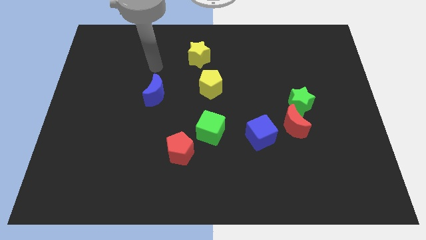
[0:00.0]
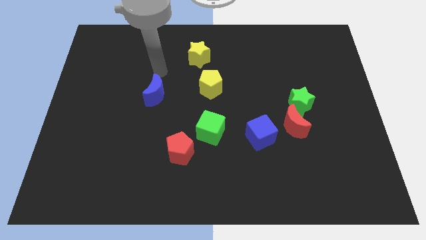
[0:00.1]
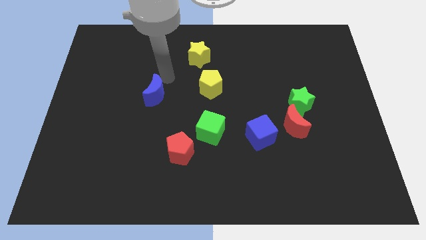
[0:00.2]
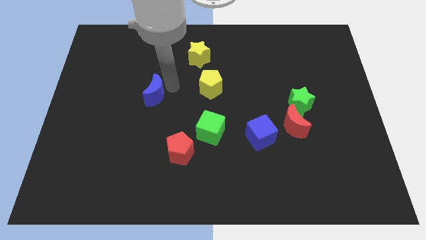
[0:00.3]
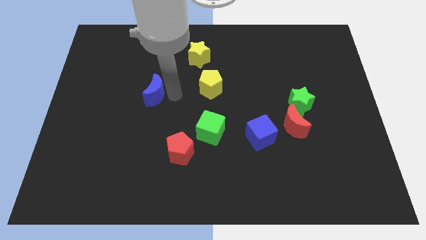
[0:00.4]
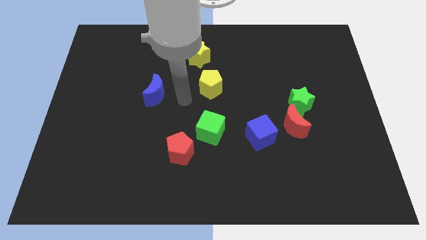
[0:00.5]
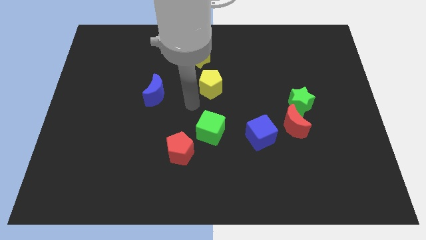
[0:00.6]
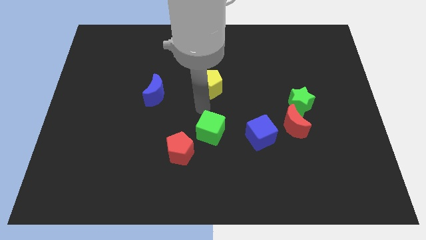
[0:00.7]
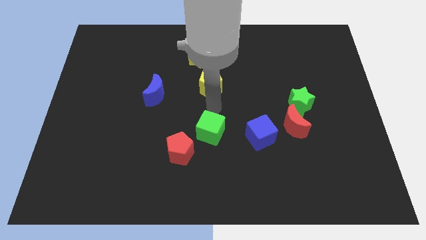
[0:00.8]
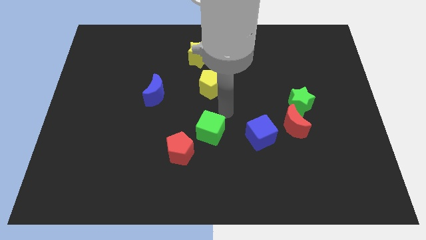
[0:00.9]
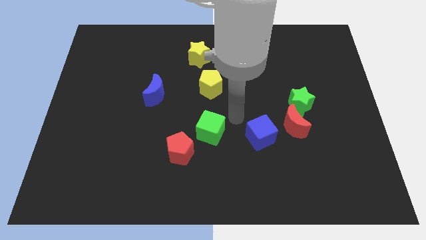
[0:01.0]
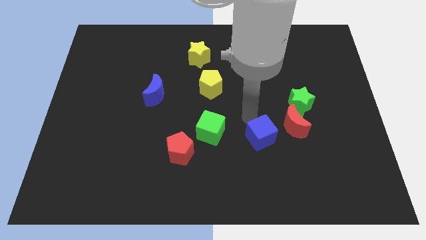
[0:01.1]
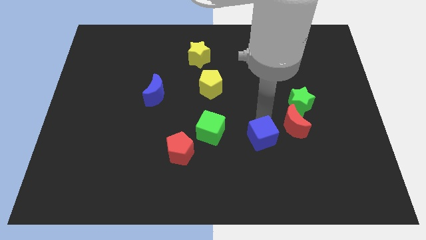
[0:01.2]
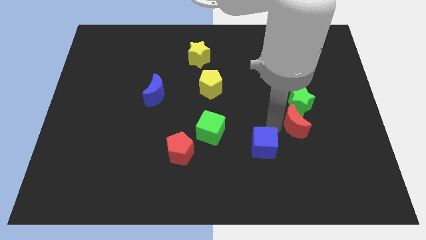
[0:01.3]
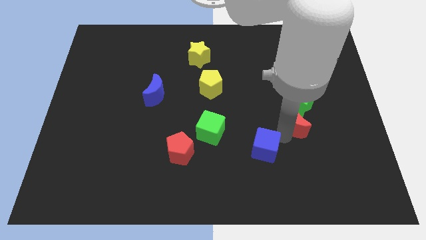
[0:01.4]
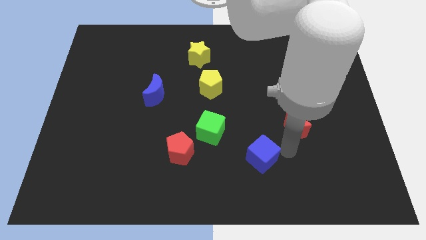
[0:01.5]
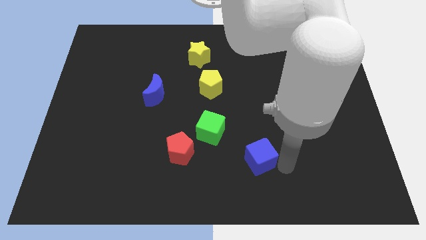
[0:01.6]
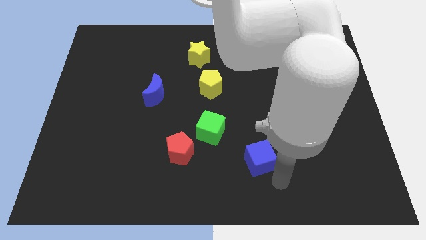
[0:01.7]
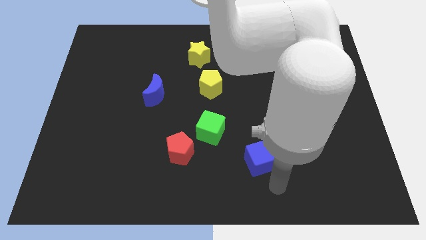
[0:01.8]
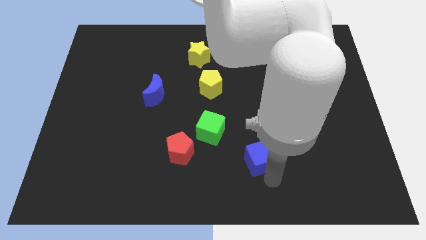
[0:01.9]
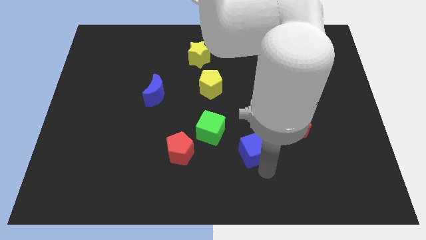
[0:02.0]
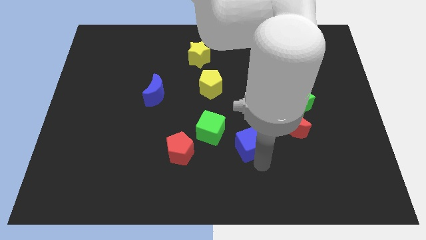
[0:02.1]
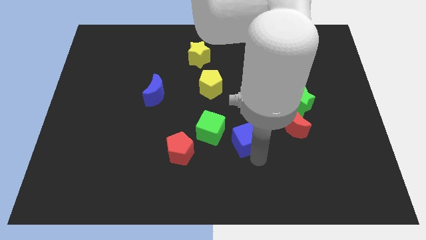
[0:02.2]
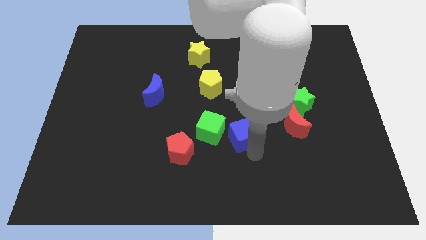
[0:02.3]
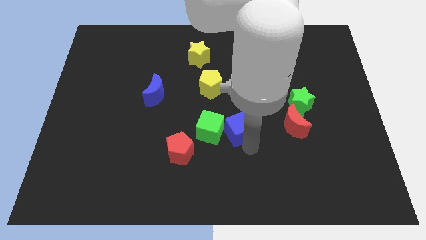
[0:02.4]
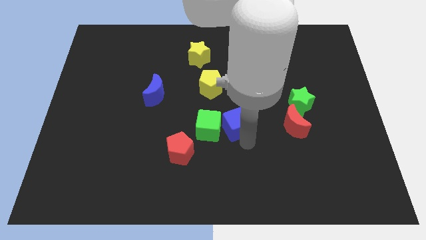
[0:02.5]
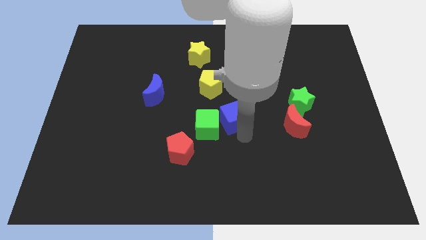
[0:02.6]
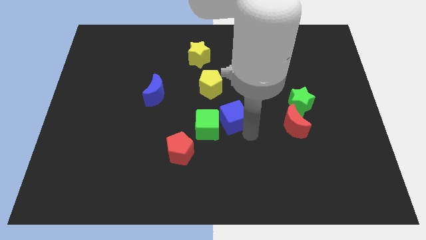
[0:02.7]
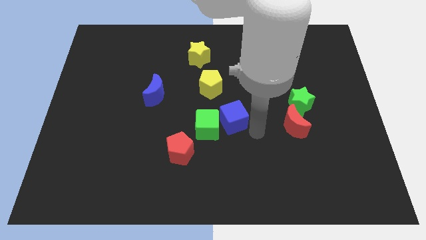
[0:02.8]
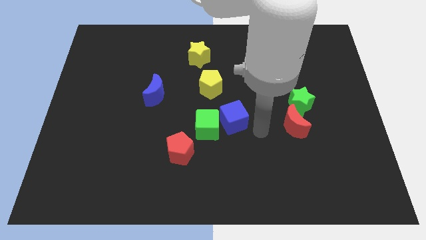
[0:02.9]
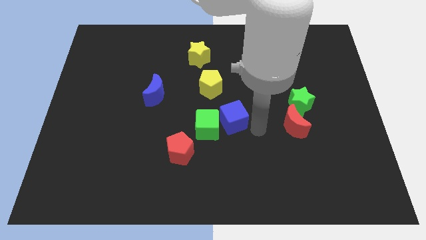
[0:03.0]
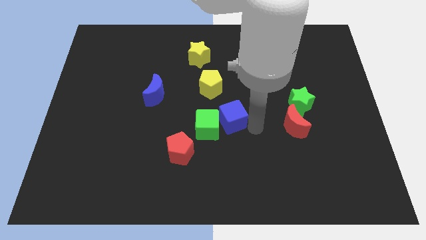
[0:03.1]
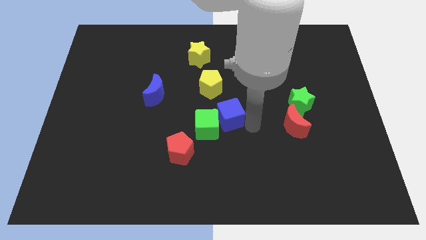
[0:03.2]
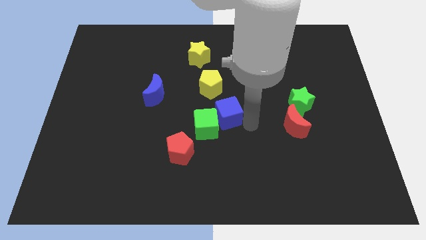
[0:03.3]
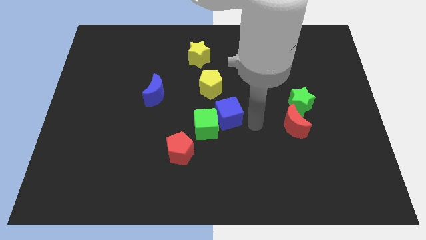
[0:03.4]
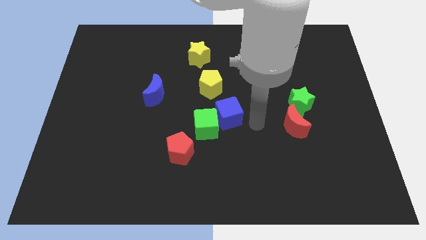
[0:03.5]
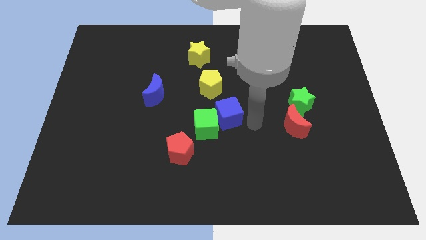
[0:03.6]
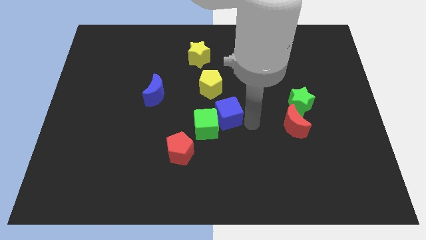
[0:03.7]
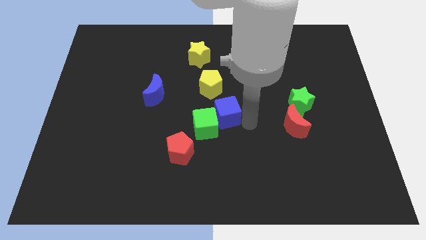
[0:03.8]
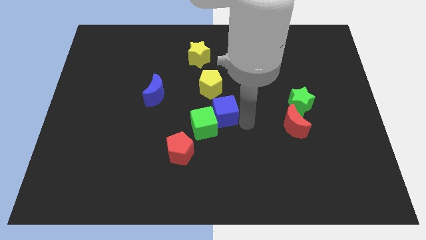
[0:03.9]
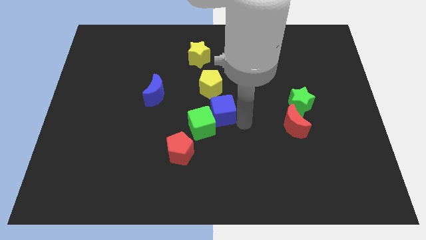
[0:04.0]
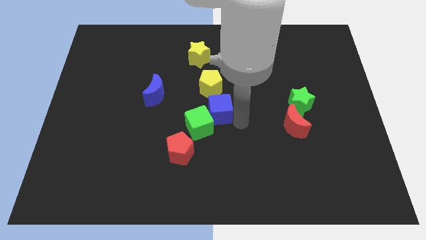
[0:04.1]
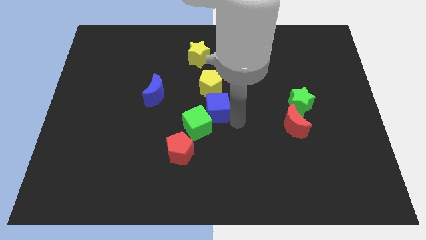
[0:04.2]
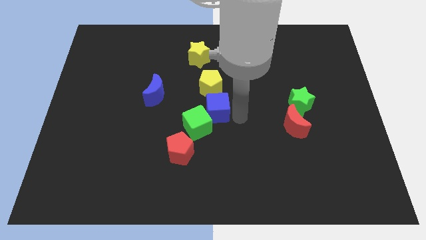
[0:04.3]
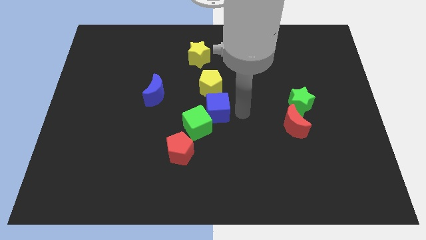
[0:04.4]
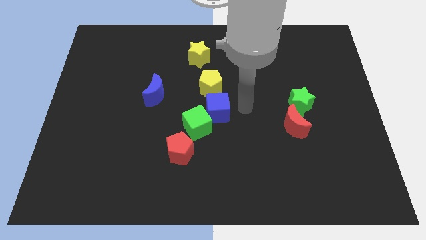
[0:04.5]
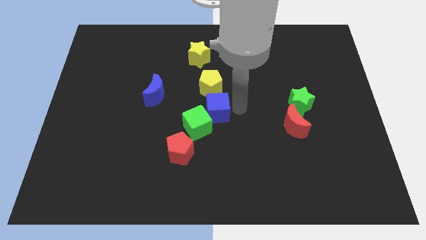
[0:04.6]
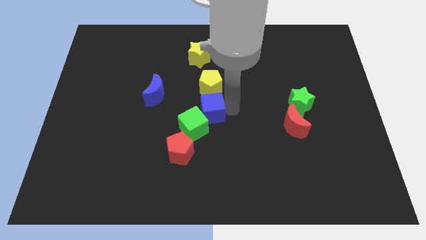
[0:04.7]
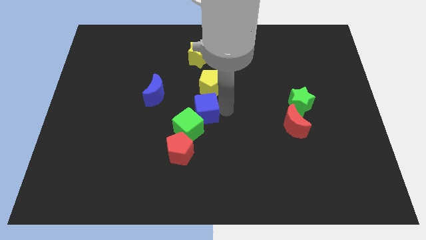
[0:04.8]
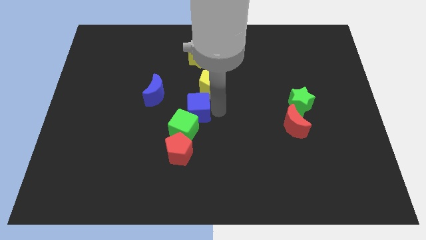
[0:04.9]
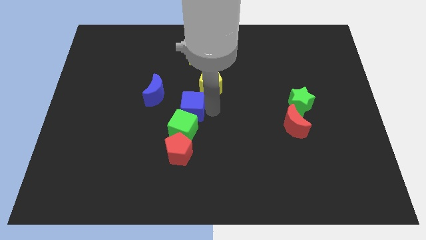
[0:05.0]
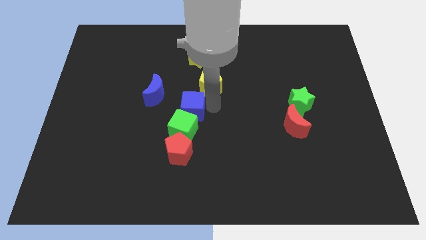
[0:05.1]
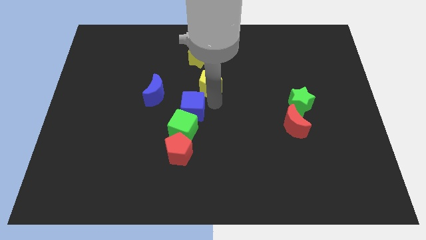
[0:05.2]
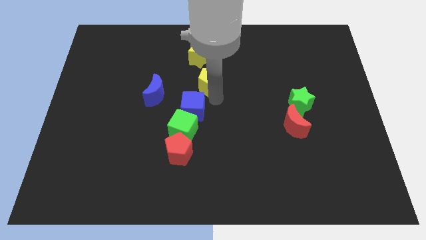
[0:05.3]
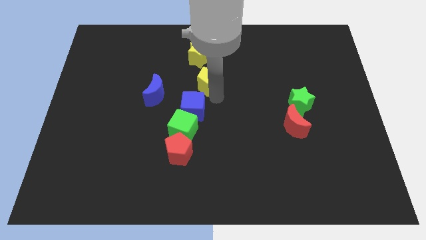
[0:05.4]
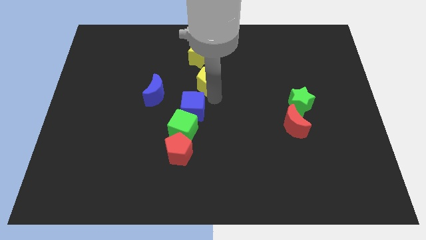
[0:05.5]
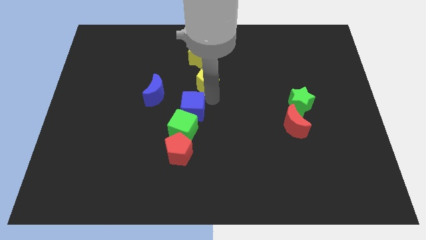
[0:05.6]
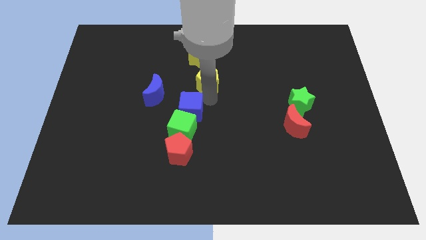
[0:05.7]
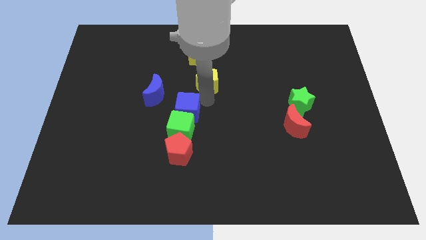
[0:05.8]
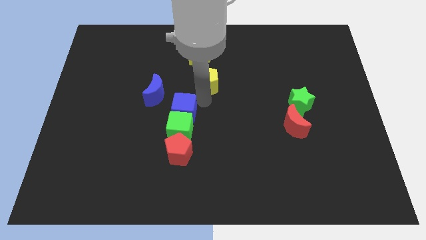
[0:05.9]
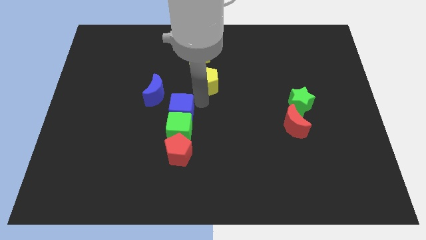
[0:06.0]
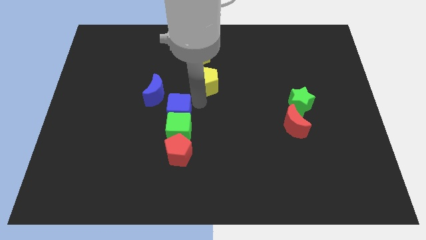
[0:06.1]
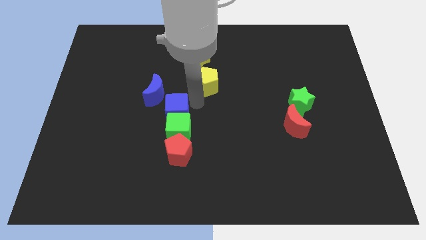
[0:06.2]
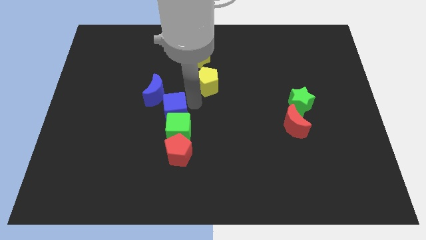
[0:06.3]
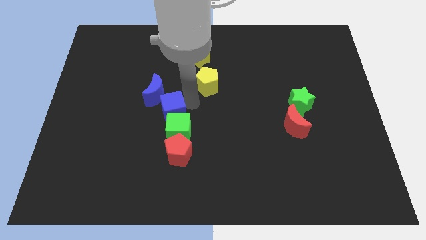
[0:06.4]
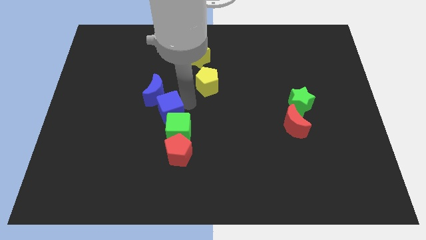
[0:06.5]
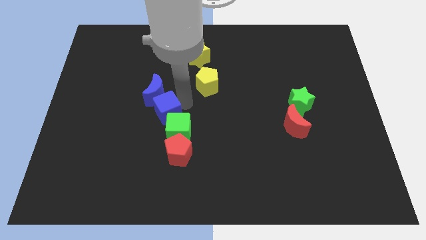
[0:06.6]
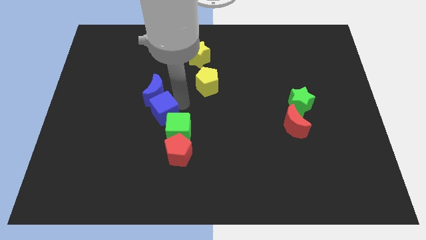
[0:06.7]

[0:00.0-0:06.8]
move the blue cube left

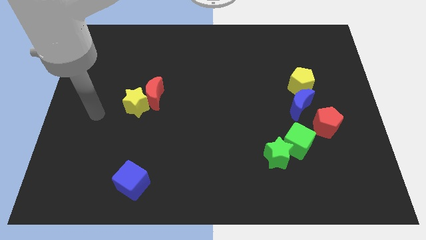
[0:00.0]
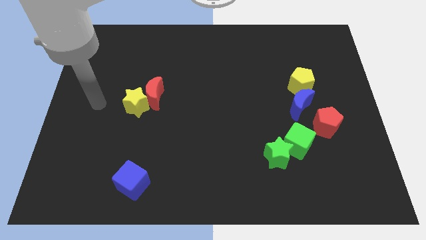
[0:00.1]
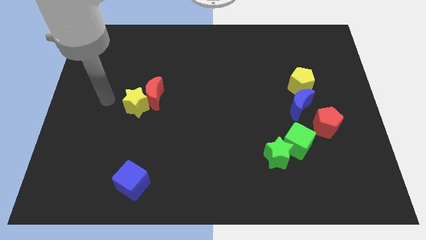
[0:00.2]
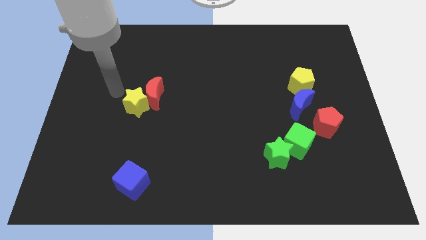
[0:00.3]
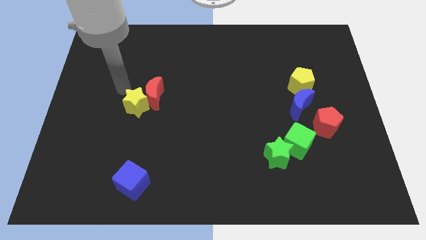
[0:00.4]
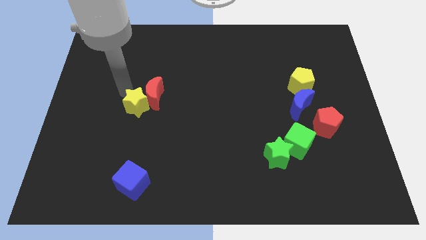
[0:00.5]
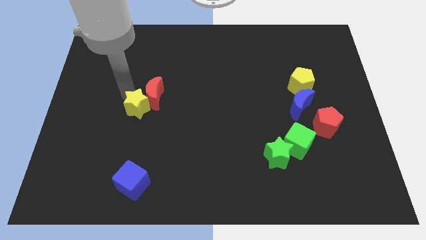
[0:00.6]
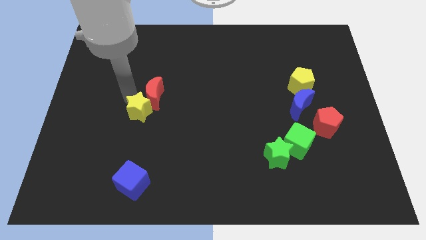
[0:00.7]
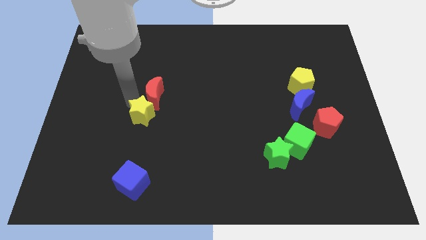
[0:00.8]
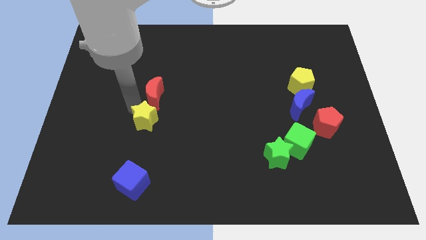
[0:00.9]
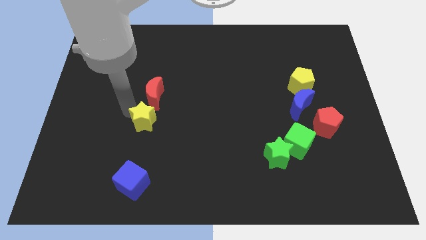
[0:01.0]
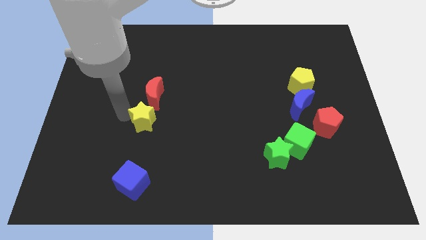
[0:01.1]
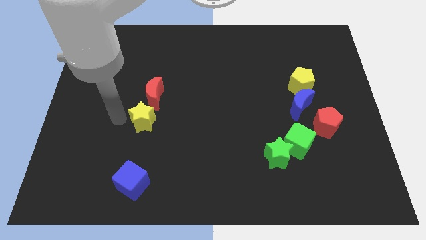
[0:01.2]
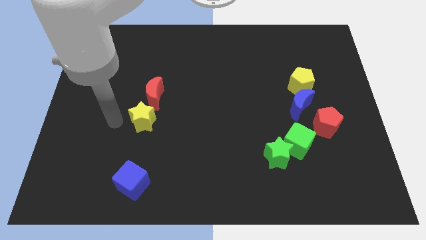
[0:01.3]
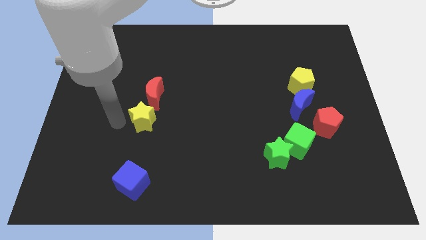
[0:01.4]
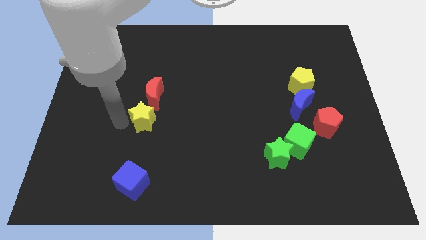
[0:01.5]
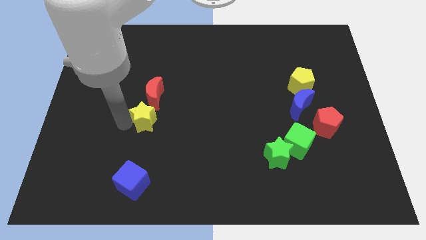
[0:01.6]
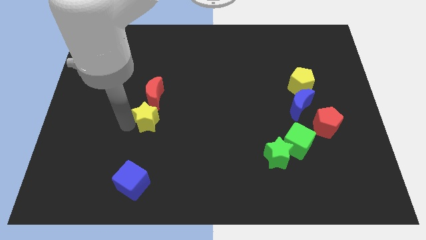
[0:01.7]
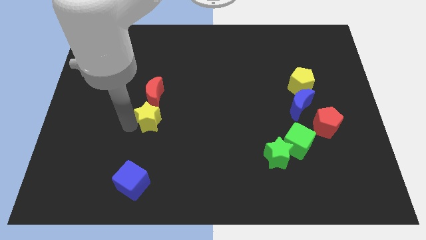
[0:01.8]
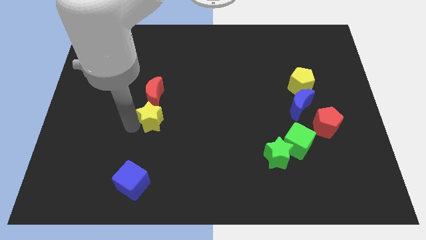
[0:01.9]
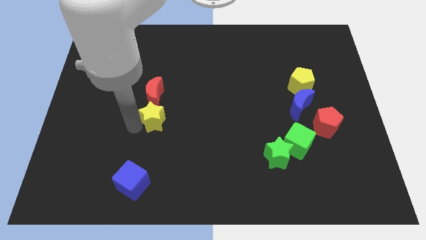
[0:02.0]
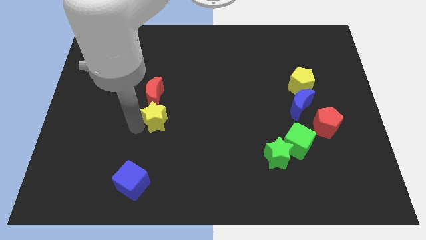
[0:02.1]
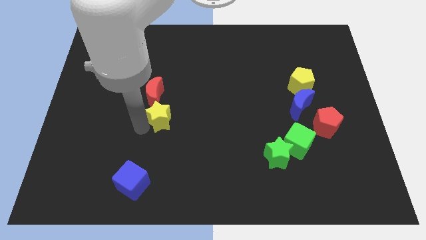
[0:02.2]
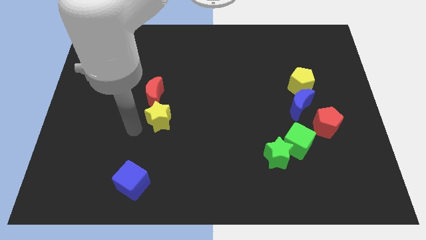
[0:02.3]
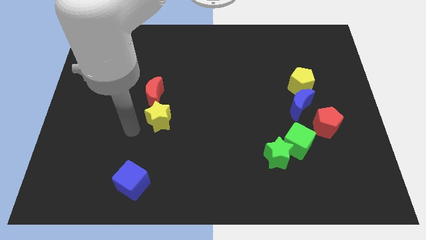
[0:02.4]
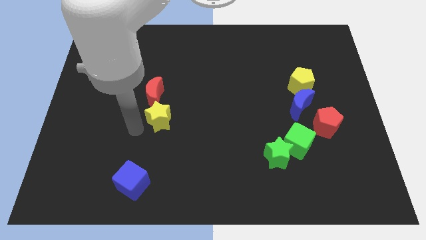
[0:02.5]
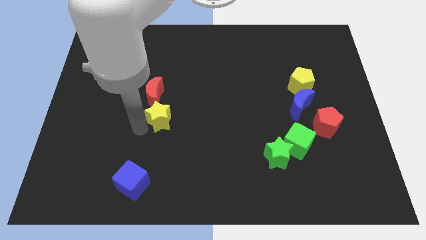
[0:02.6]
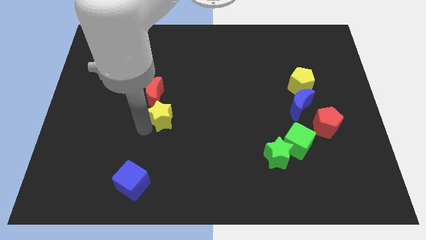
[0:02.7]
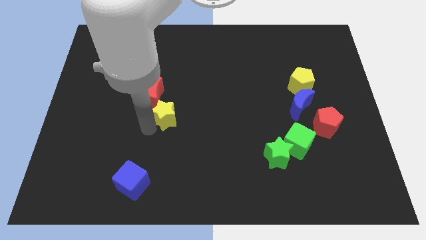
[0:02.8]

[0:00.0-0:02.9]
move the yellow star slightly right
